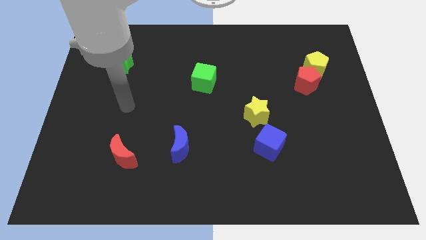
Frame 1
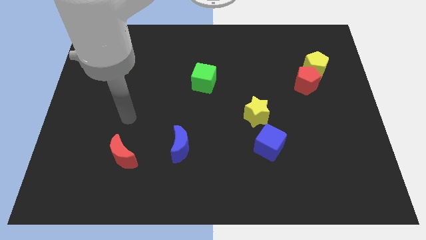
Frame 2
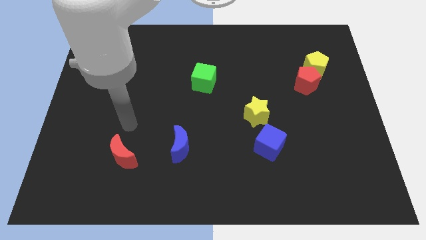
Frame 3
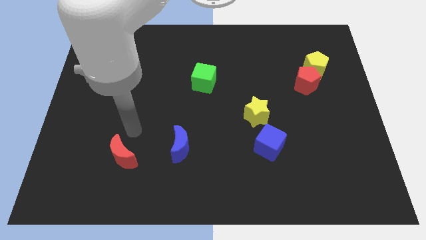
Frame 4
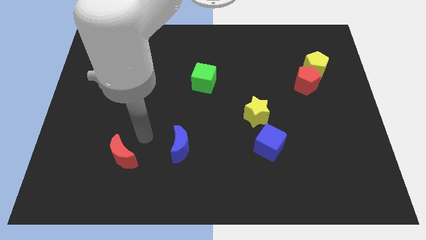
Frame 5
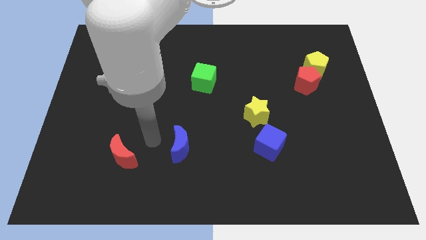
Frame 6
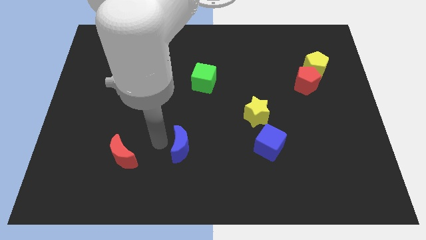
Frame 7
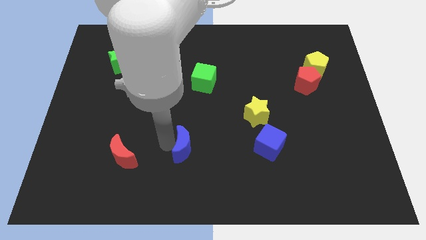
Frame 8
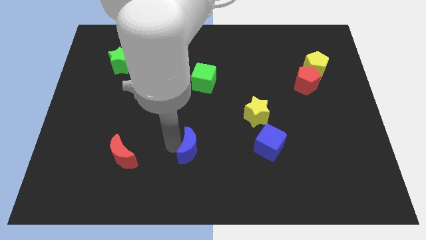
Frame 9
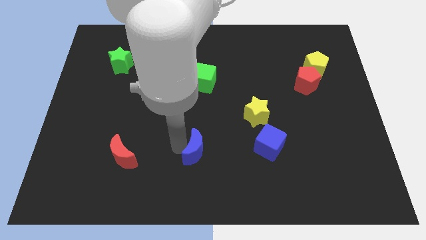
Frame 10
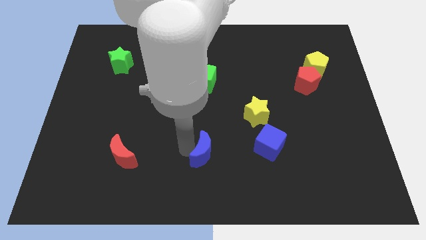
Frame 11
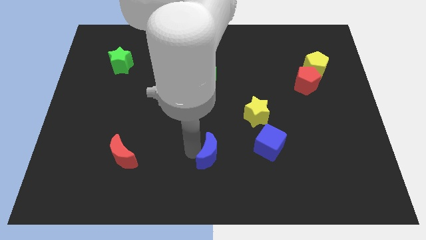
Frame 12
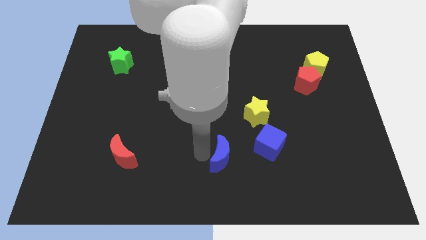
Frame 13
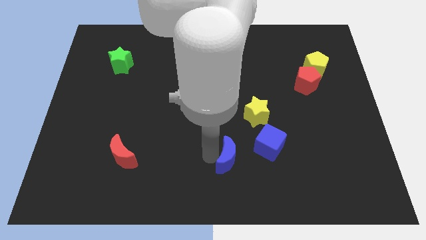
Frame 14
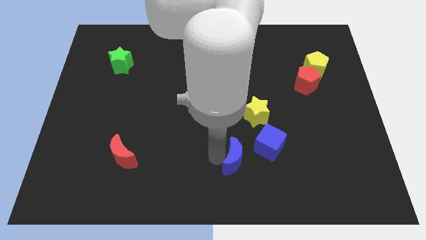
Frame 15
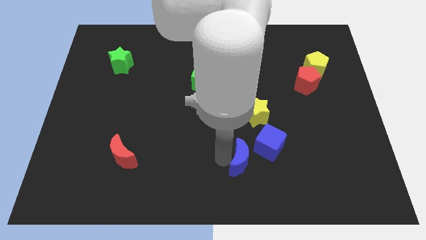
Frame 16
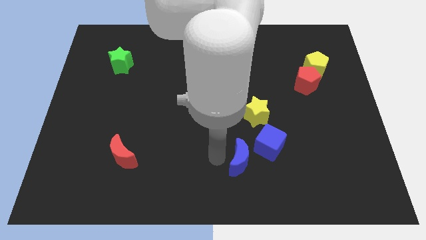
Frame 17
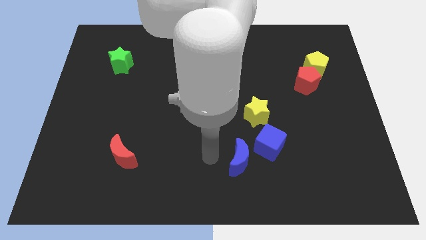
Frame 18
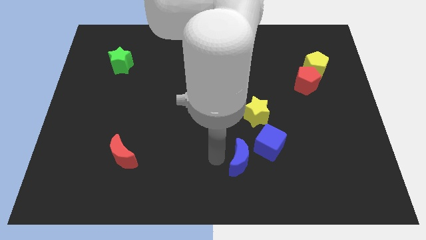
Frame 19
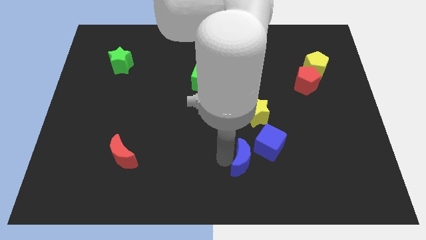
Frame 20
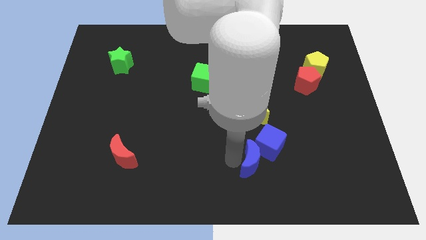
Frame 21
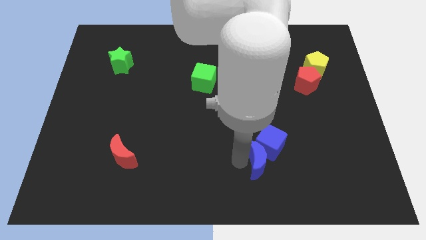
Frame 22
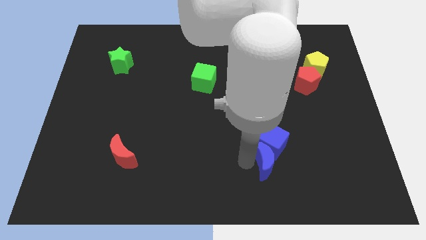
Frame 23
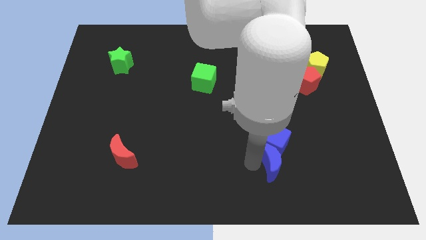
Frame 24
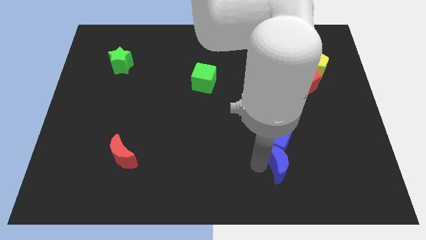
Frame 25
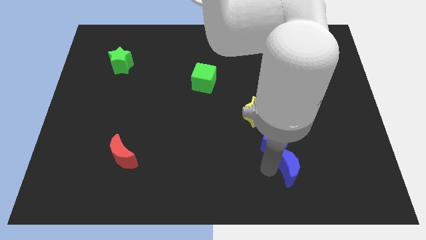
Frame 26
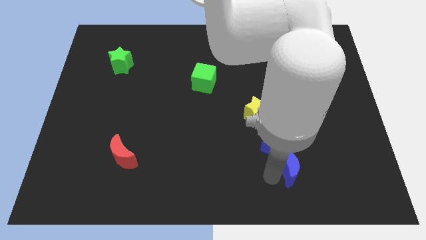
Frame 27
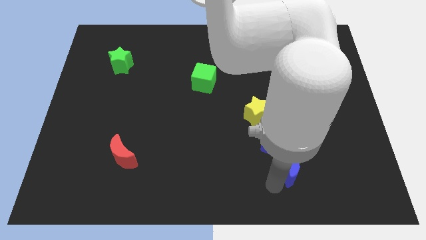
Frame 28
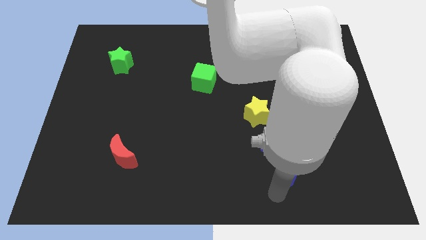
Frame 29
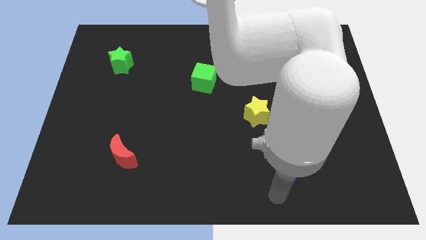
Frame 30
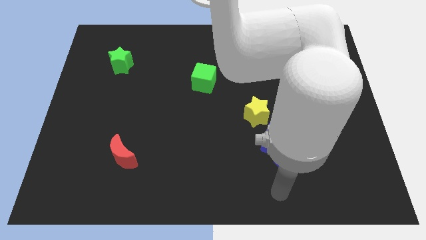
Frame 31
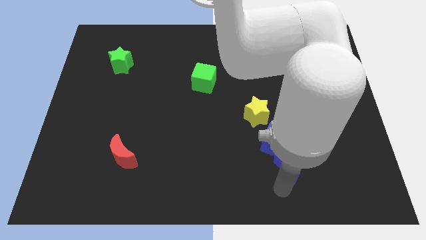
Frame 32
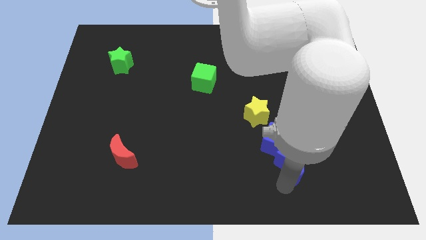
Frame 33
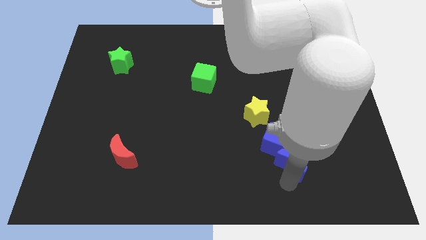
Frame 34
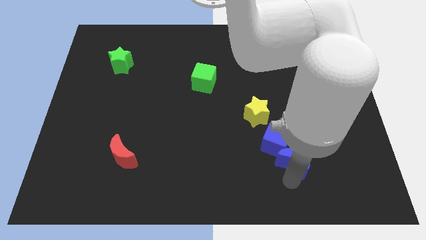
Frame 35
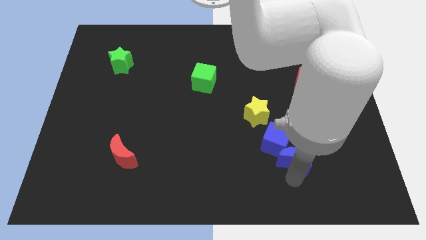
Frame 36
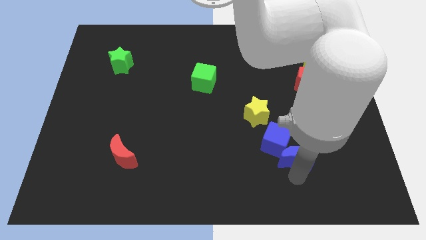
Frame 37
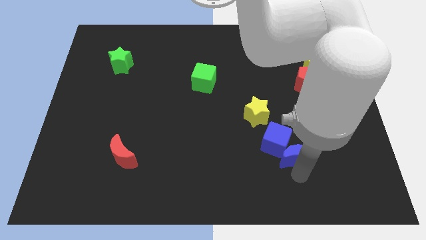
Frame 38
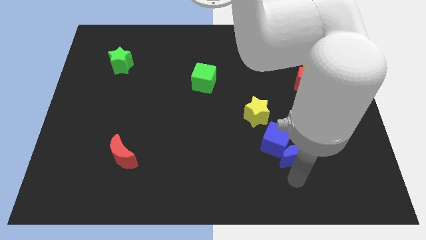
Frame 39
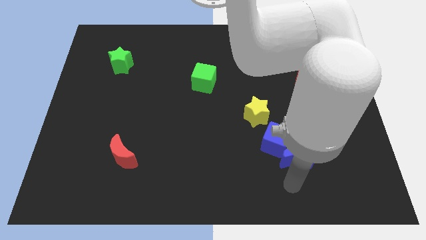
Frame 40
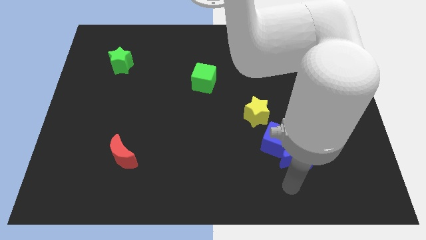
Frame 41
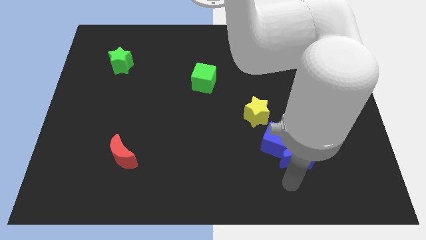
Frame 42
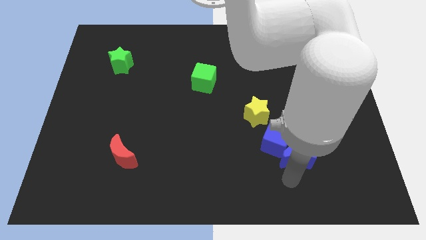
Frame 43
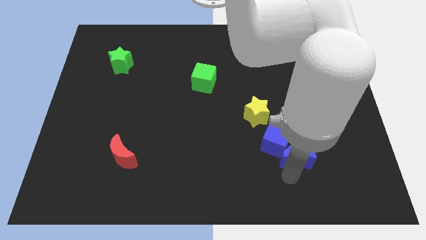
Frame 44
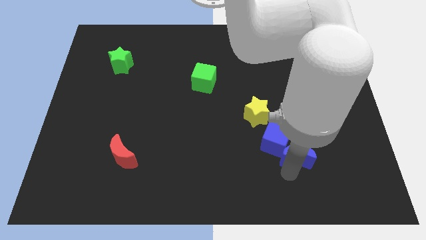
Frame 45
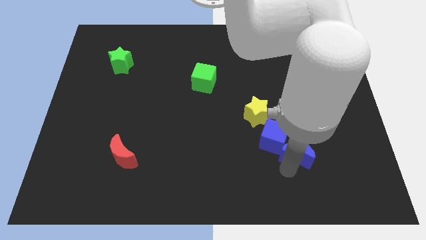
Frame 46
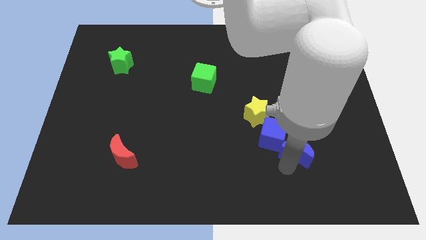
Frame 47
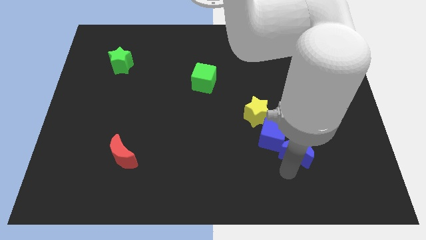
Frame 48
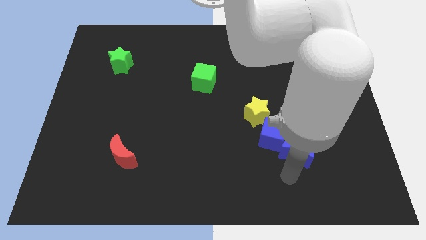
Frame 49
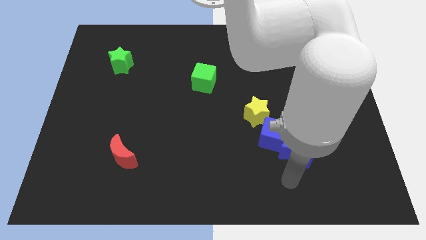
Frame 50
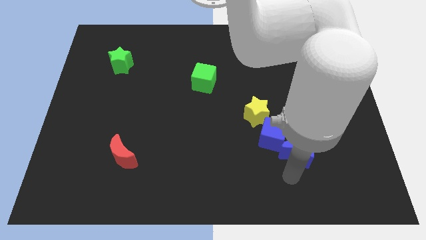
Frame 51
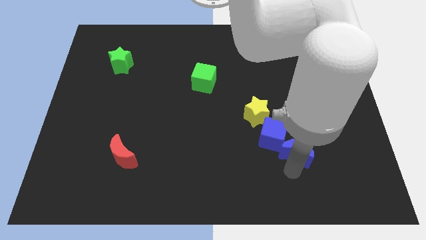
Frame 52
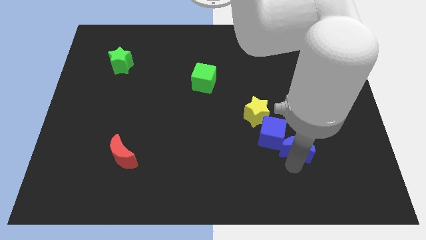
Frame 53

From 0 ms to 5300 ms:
move the blue moon to the bottom right of the yellow star

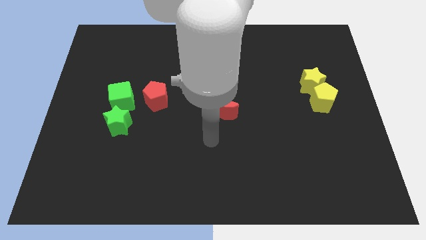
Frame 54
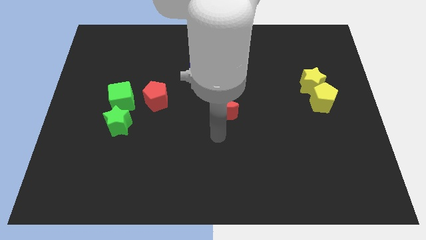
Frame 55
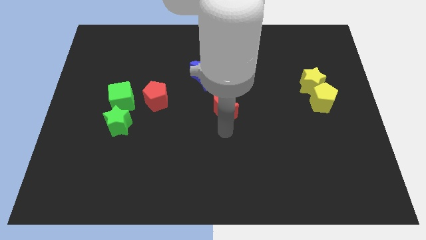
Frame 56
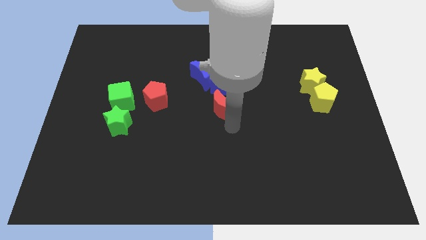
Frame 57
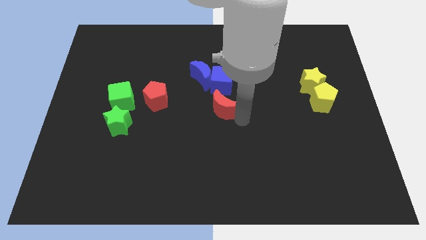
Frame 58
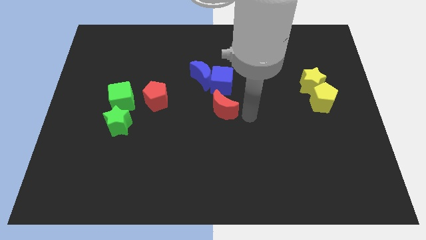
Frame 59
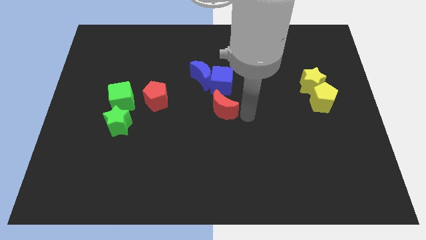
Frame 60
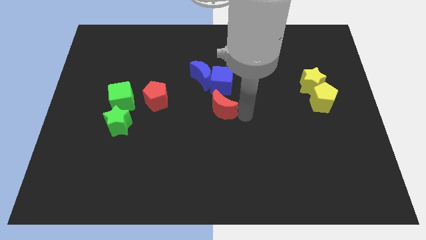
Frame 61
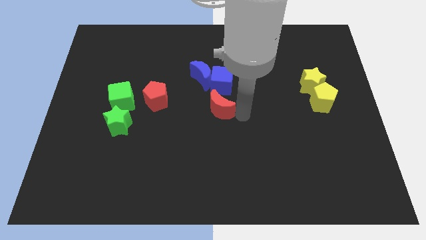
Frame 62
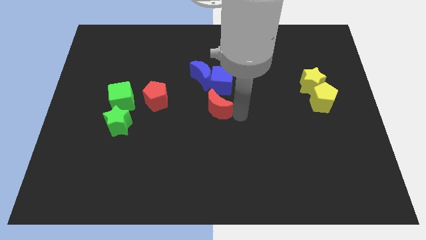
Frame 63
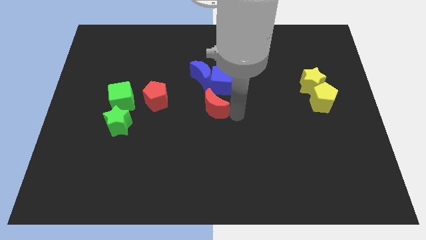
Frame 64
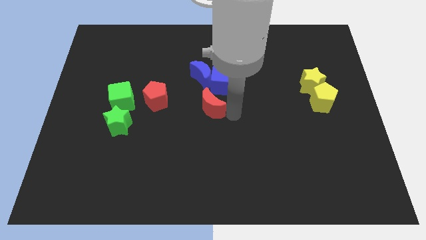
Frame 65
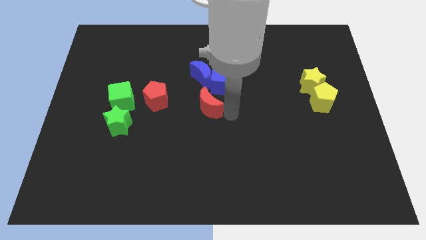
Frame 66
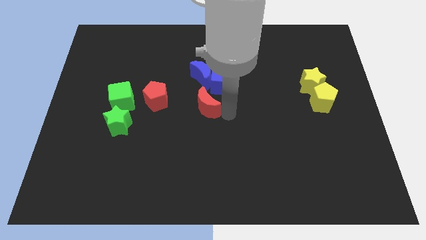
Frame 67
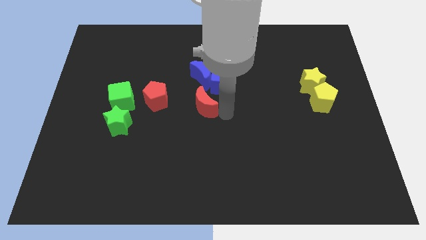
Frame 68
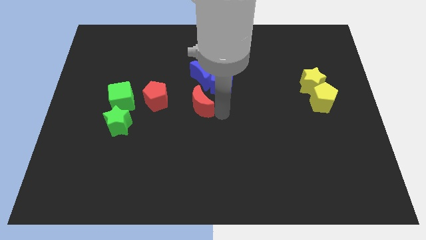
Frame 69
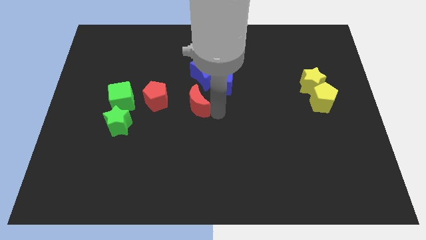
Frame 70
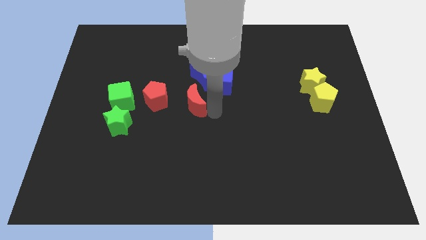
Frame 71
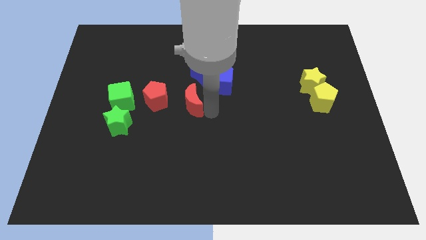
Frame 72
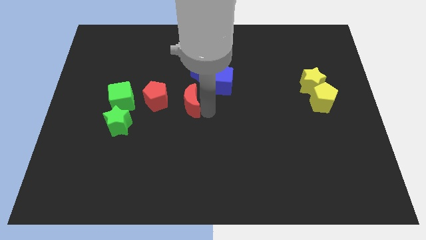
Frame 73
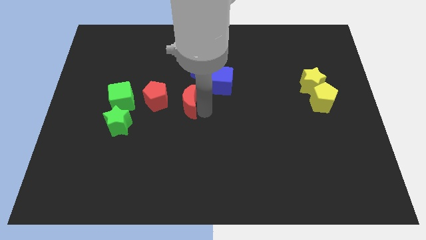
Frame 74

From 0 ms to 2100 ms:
push the red moon just right of the green cube

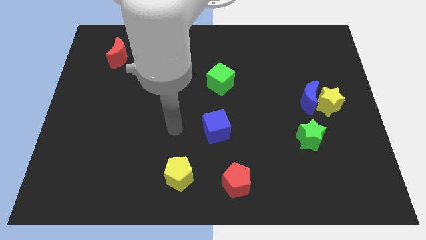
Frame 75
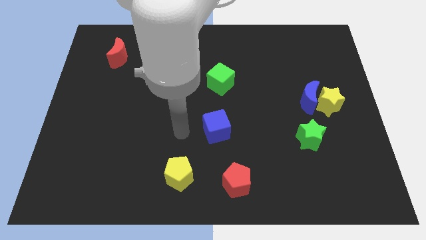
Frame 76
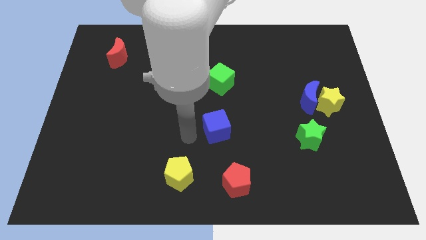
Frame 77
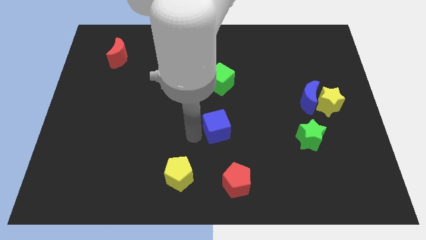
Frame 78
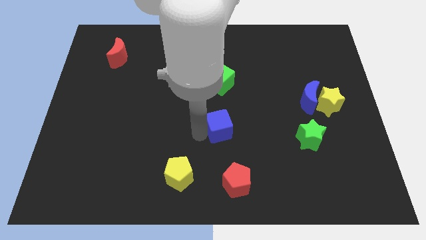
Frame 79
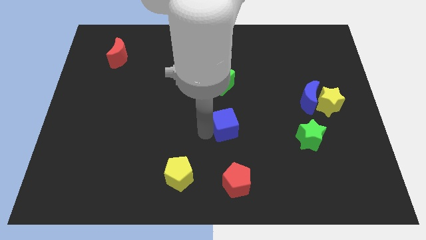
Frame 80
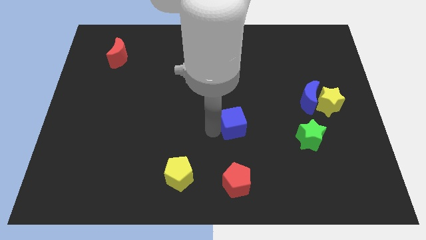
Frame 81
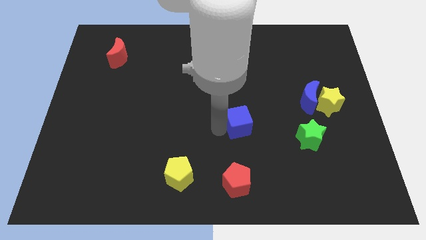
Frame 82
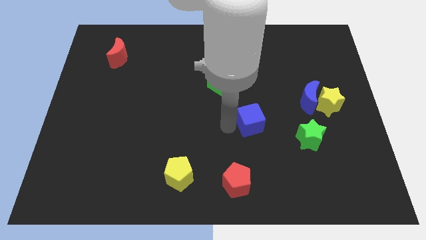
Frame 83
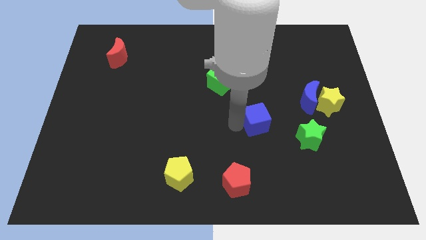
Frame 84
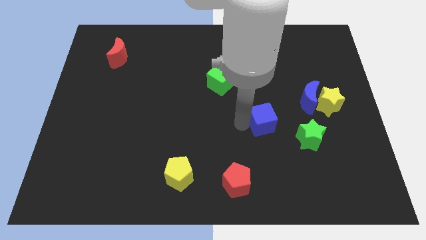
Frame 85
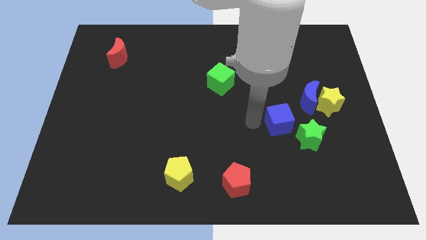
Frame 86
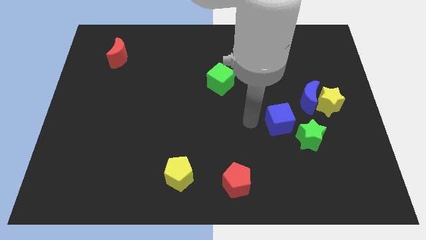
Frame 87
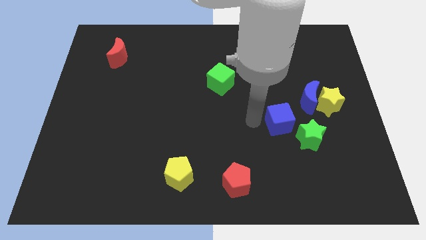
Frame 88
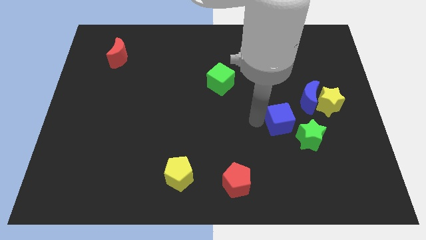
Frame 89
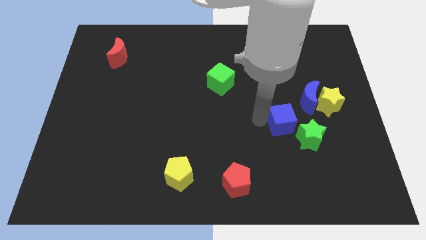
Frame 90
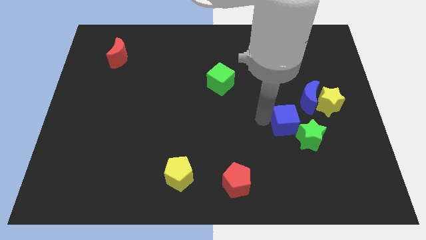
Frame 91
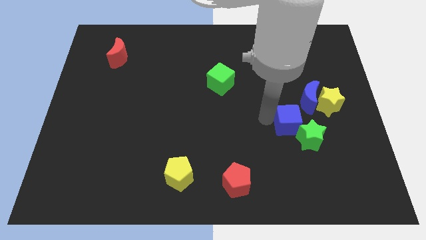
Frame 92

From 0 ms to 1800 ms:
move the blue cube to the bottom left side of the yellow star
